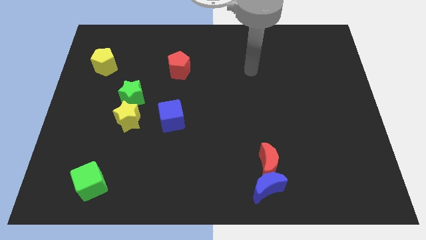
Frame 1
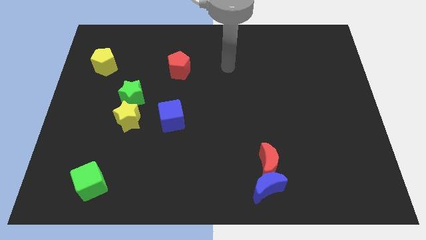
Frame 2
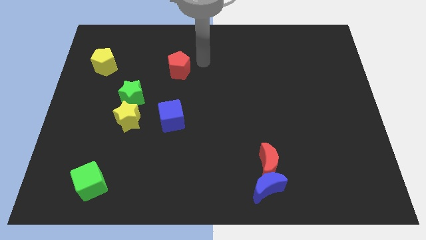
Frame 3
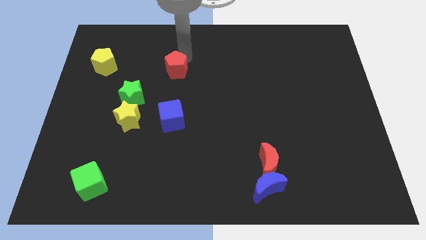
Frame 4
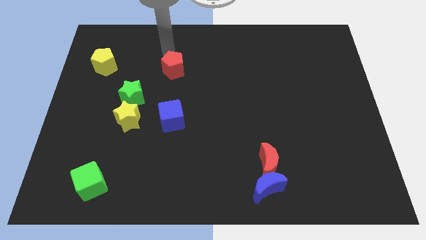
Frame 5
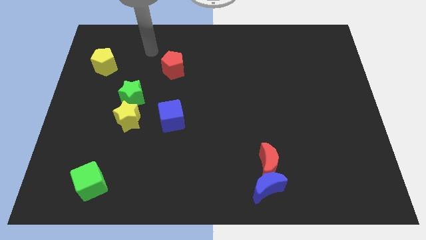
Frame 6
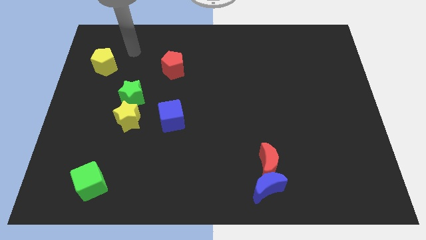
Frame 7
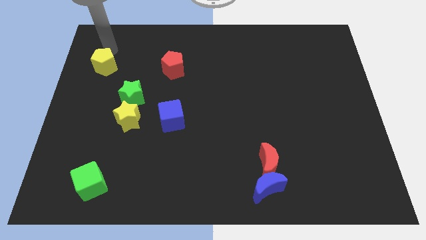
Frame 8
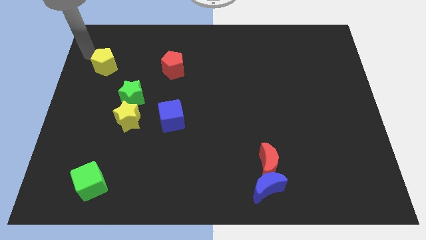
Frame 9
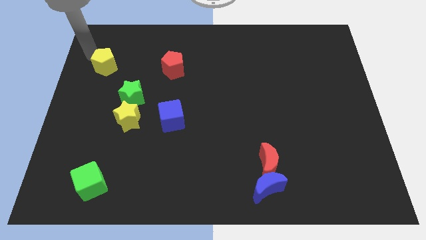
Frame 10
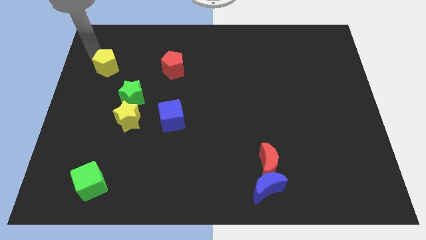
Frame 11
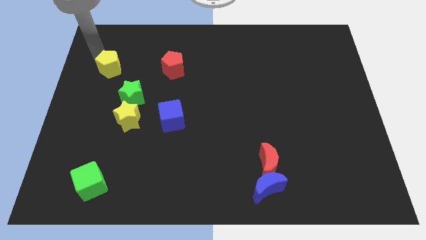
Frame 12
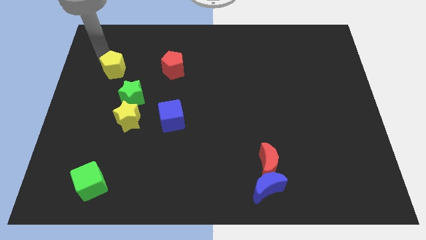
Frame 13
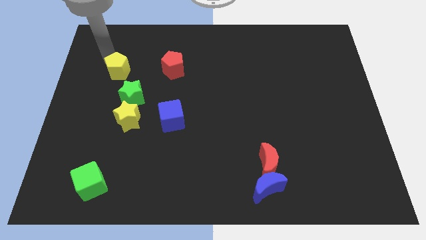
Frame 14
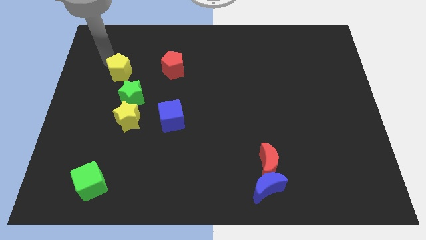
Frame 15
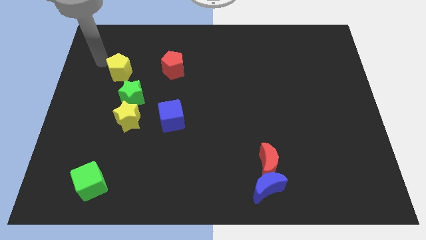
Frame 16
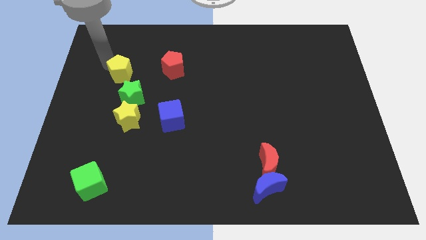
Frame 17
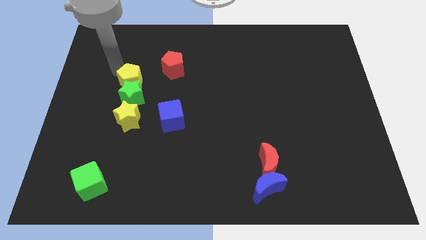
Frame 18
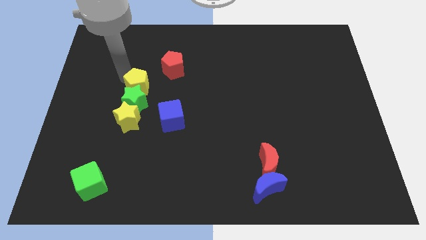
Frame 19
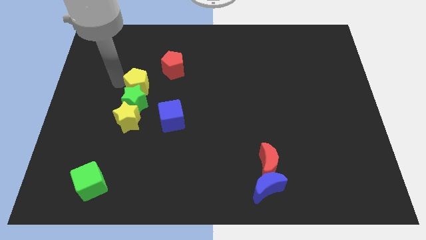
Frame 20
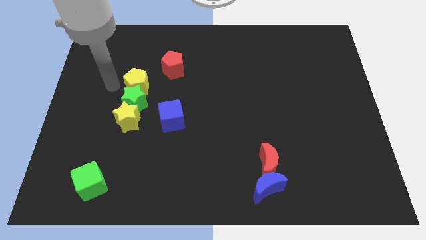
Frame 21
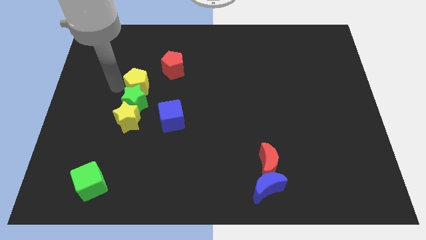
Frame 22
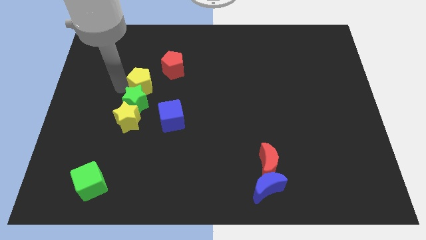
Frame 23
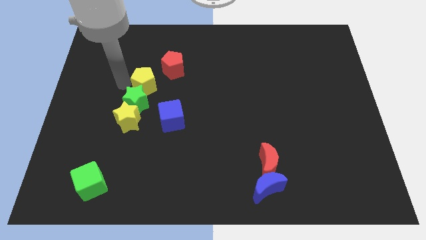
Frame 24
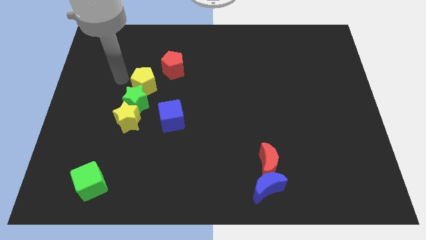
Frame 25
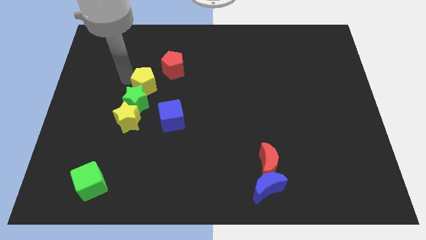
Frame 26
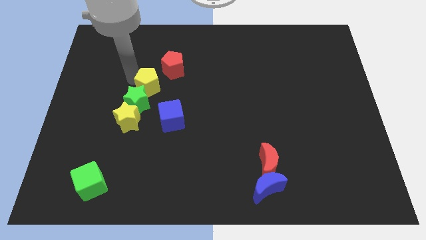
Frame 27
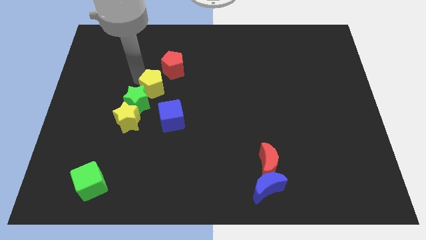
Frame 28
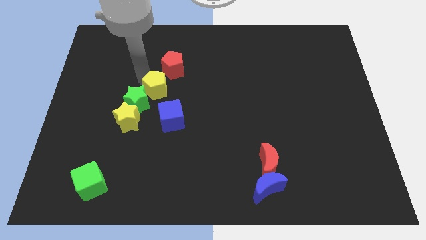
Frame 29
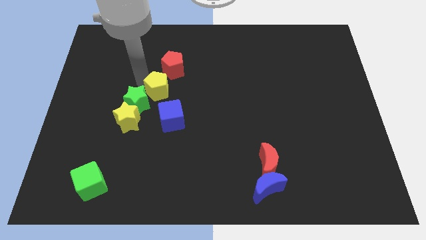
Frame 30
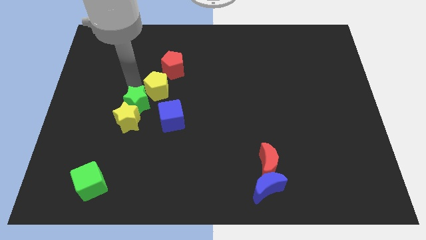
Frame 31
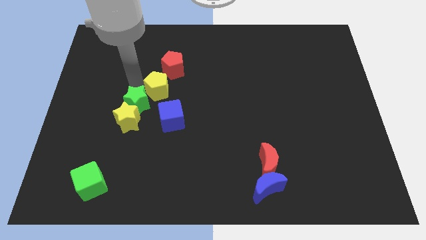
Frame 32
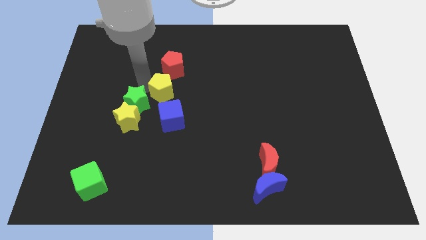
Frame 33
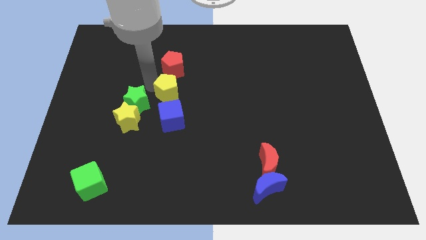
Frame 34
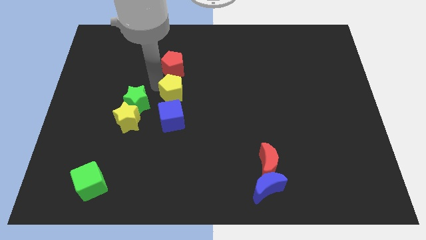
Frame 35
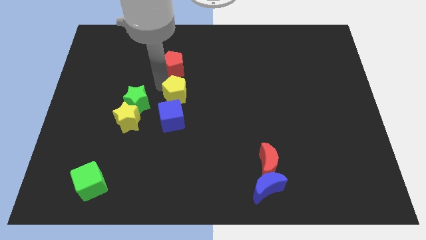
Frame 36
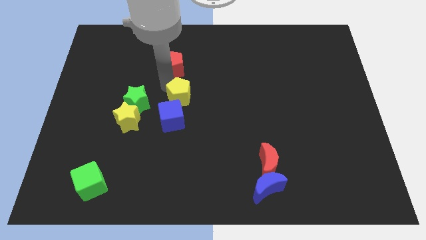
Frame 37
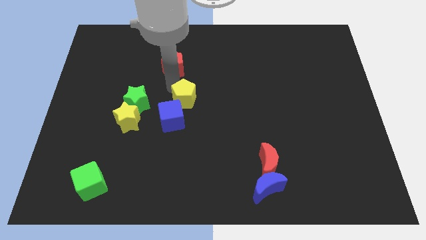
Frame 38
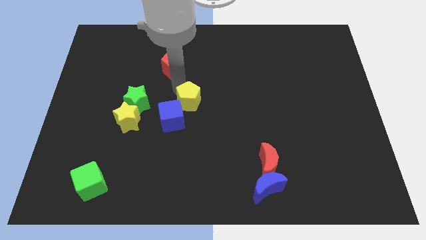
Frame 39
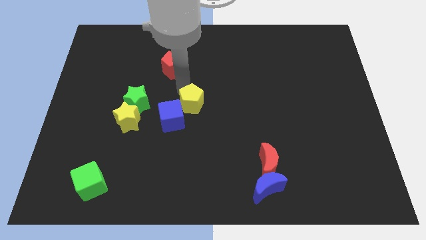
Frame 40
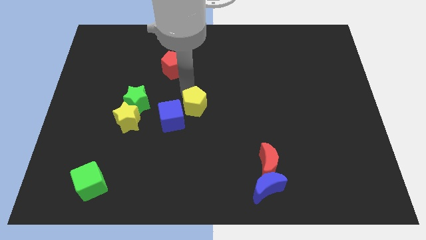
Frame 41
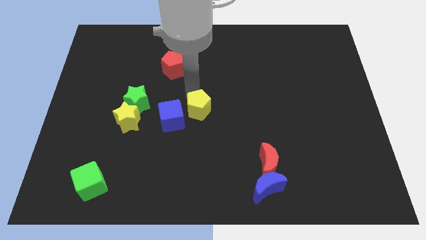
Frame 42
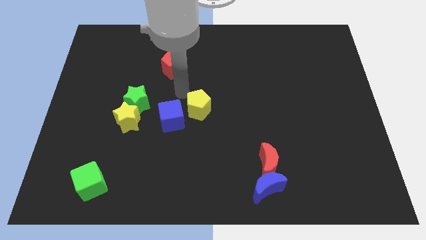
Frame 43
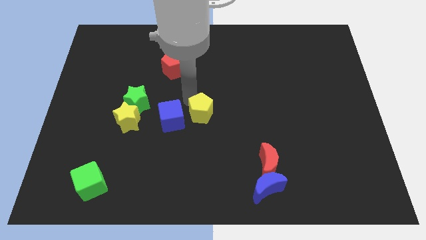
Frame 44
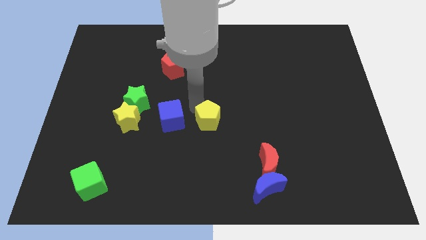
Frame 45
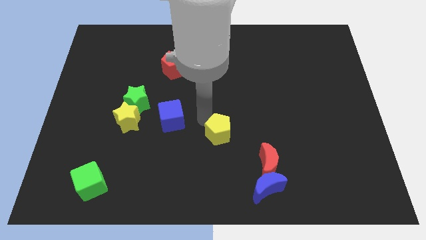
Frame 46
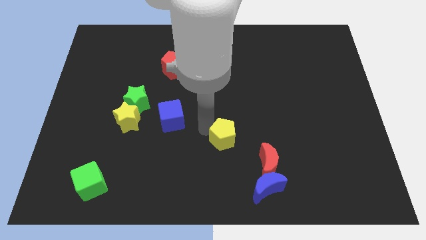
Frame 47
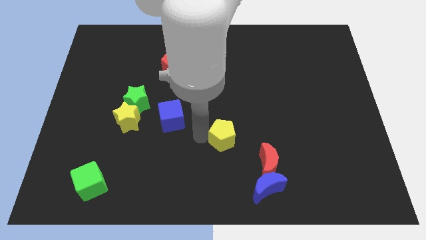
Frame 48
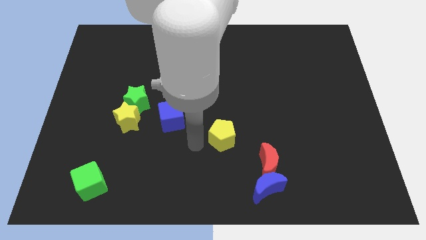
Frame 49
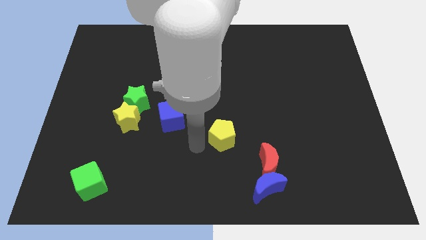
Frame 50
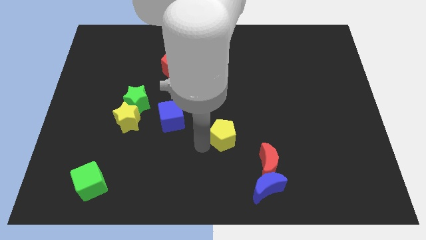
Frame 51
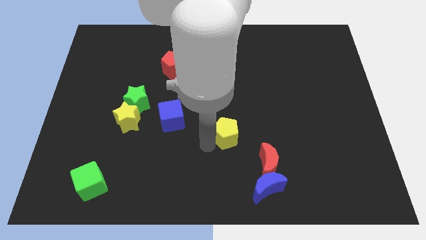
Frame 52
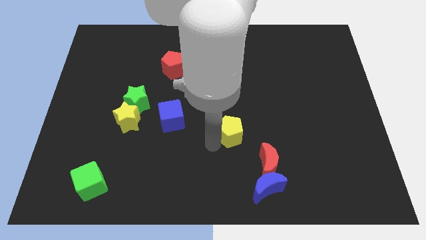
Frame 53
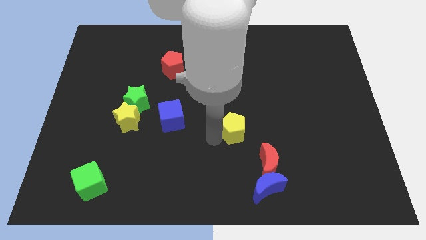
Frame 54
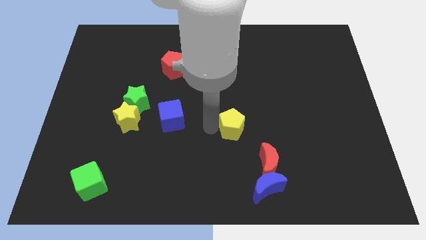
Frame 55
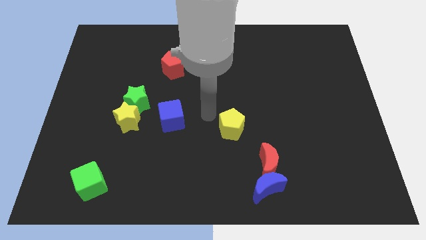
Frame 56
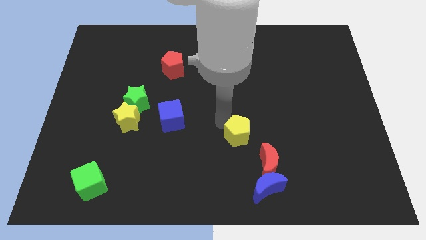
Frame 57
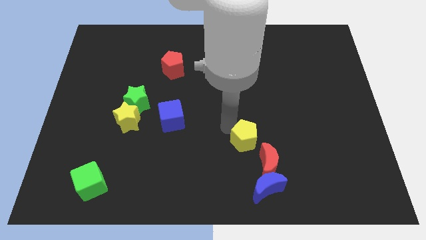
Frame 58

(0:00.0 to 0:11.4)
move the yellow pentagon to the top side of the blue moon

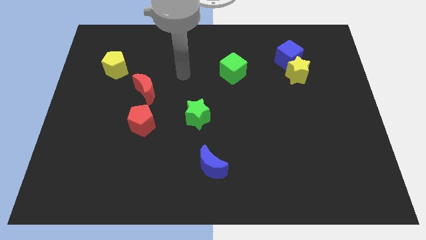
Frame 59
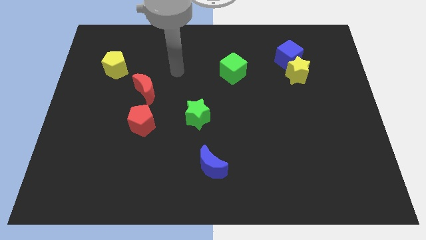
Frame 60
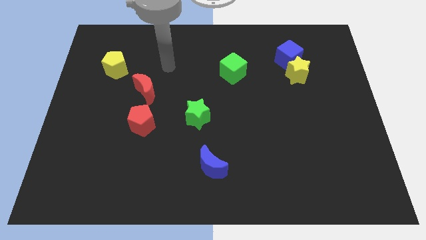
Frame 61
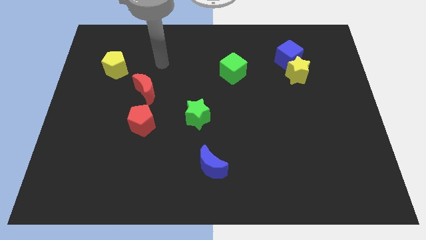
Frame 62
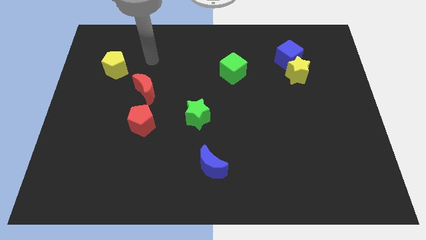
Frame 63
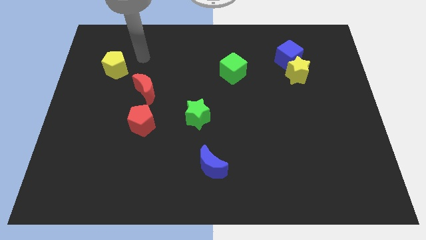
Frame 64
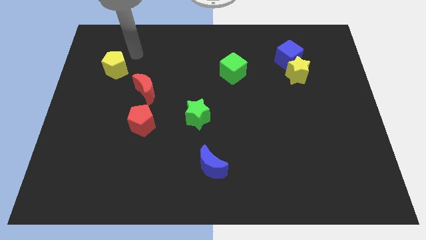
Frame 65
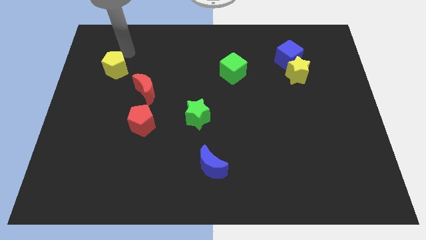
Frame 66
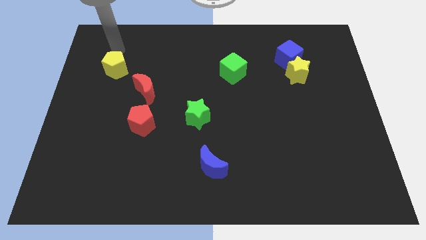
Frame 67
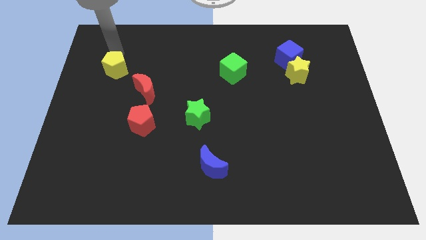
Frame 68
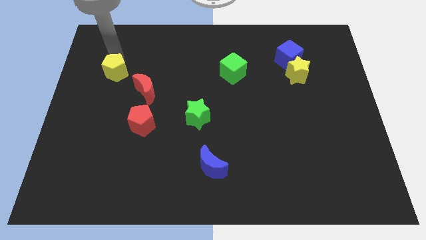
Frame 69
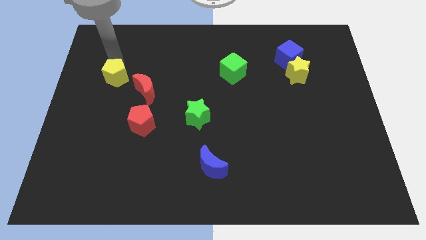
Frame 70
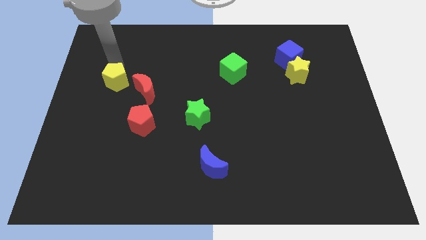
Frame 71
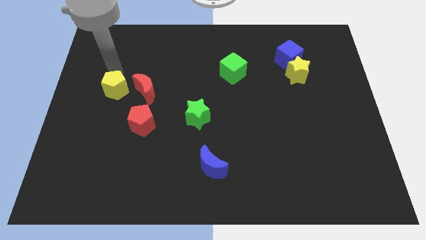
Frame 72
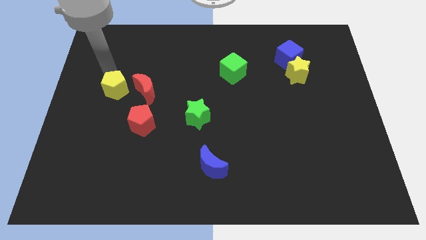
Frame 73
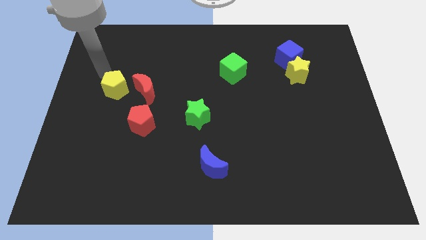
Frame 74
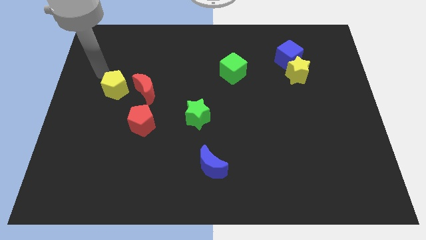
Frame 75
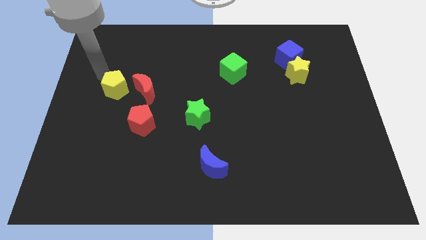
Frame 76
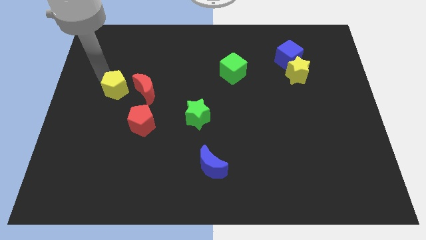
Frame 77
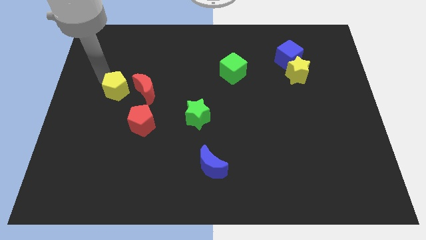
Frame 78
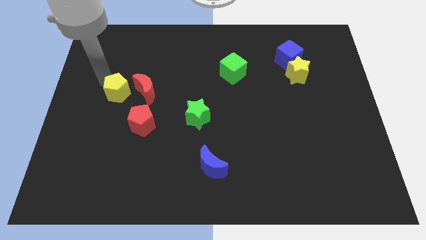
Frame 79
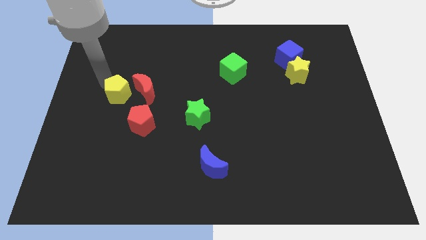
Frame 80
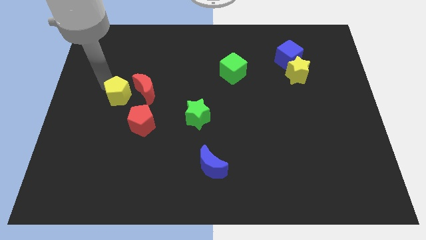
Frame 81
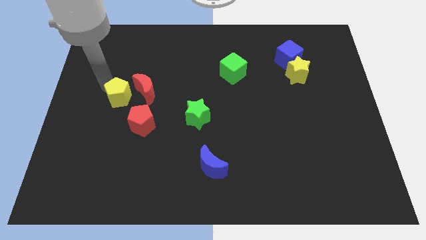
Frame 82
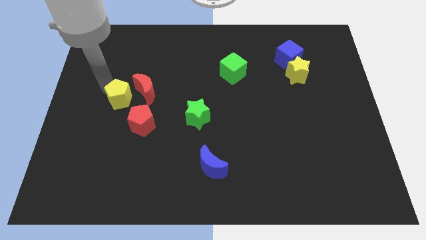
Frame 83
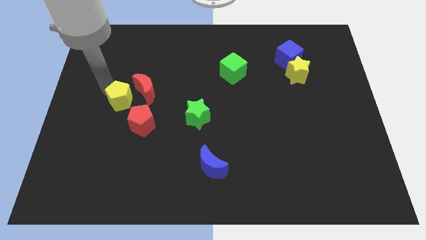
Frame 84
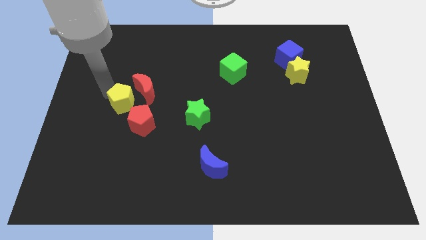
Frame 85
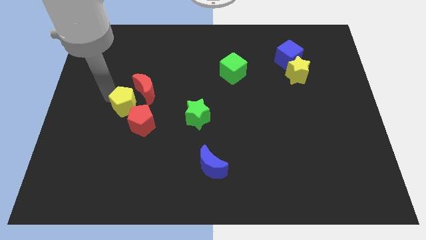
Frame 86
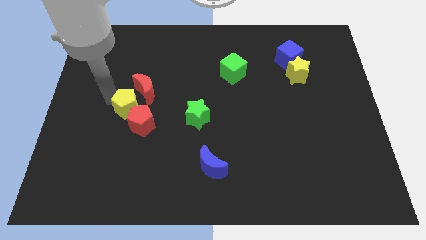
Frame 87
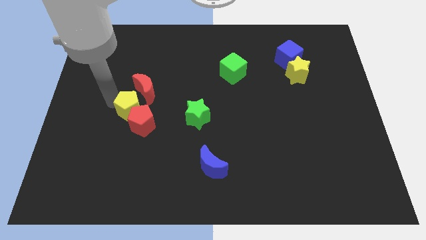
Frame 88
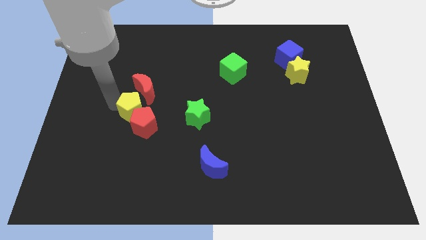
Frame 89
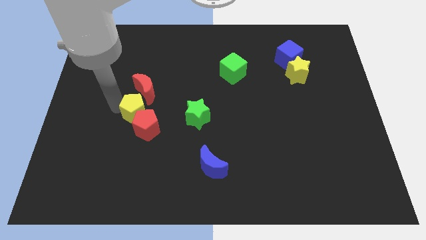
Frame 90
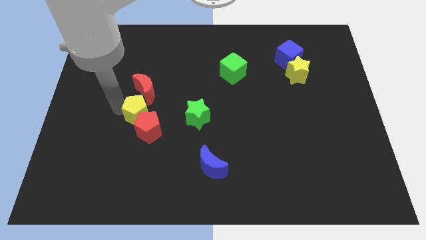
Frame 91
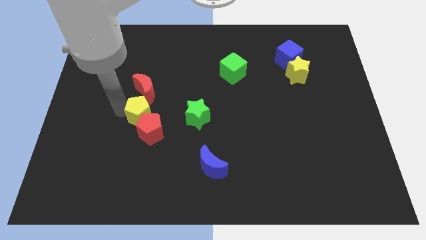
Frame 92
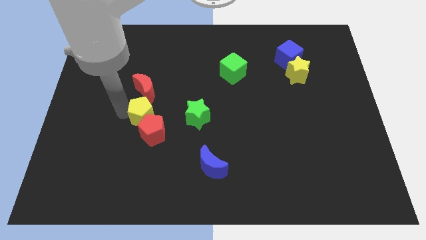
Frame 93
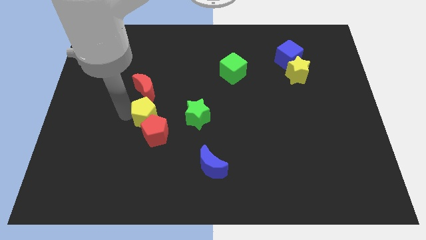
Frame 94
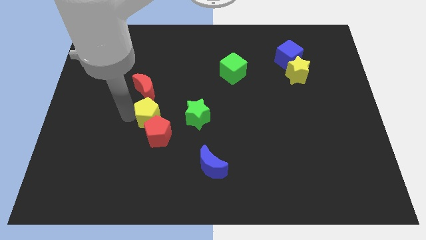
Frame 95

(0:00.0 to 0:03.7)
move the yellow pentagon diagonally down and to the right of the red moon
